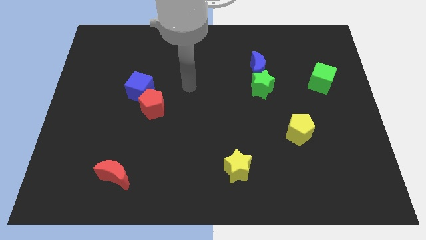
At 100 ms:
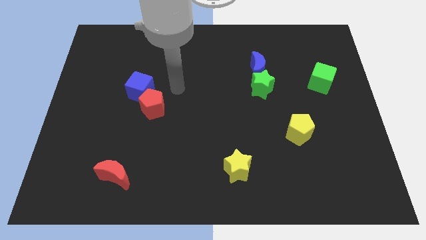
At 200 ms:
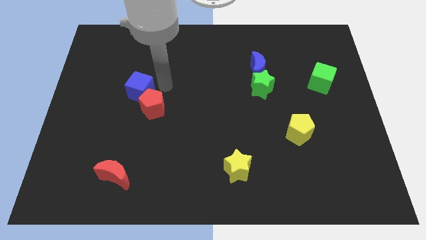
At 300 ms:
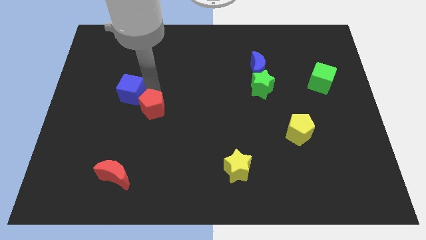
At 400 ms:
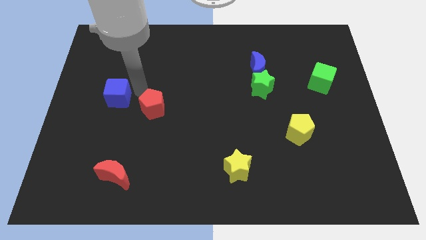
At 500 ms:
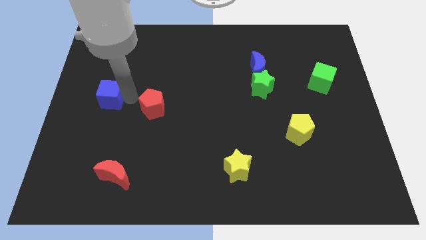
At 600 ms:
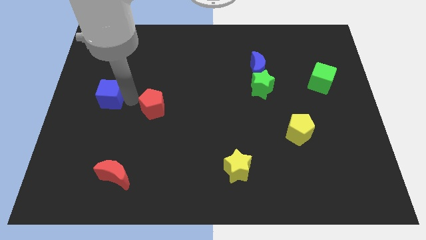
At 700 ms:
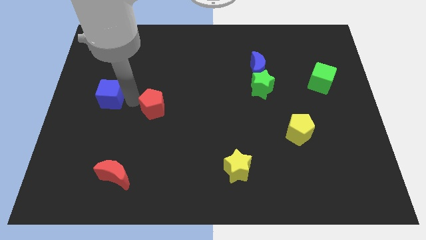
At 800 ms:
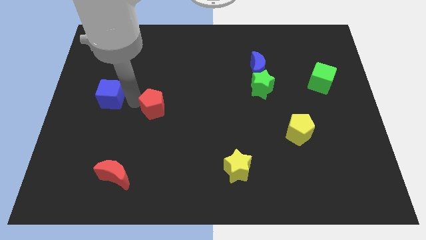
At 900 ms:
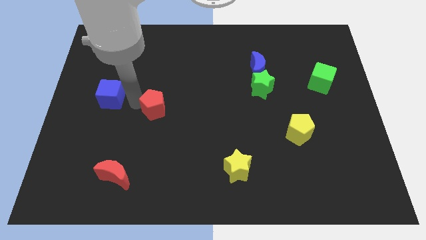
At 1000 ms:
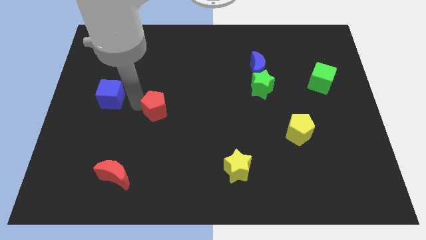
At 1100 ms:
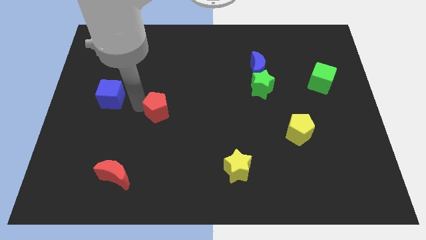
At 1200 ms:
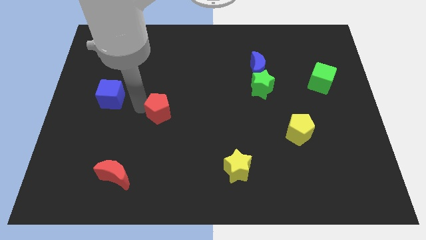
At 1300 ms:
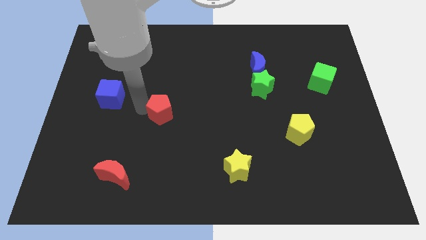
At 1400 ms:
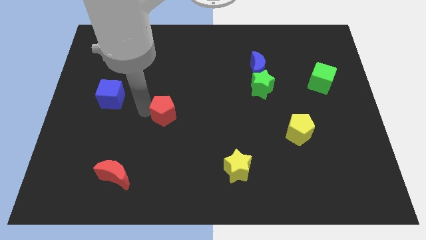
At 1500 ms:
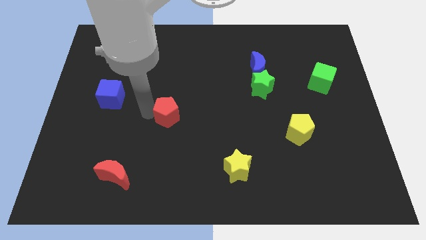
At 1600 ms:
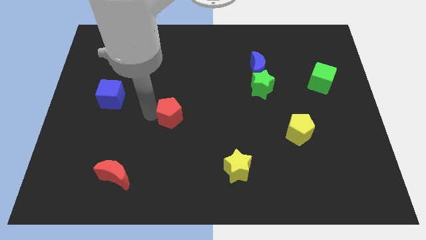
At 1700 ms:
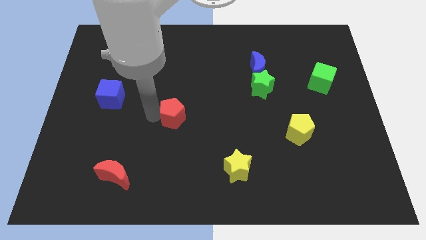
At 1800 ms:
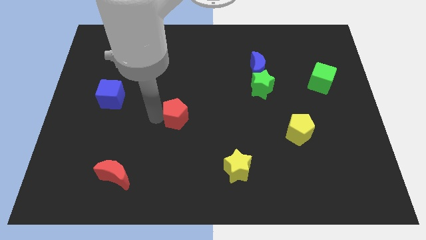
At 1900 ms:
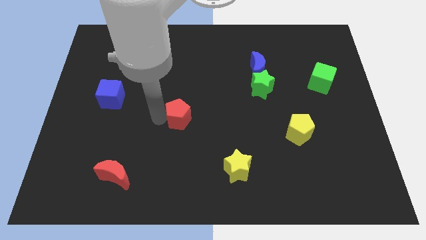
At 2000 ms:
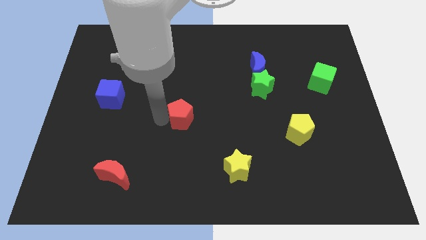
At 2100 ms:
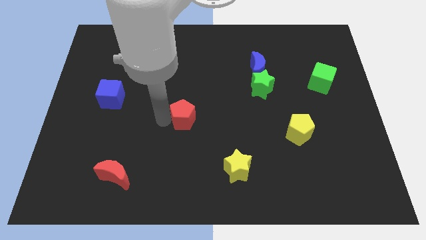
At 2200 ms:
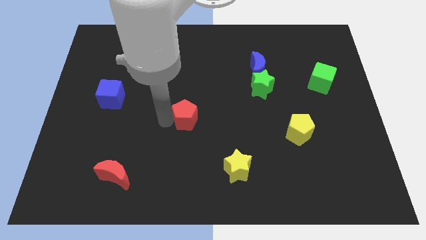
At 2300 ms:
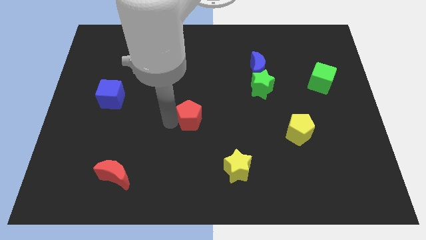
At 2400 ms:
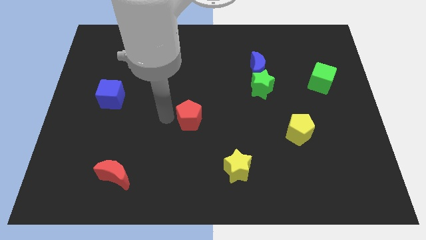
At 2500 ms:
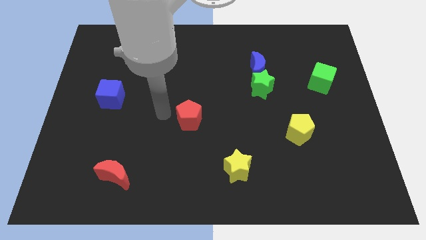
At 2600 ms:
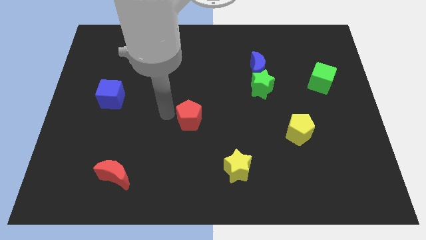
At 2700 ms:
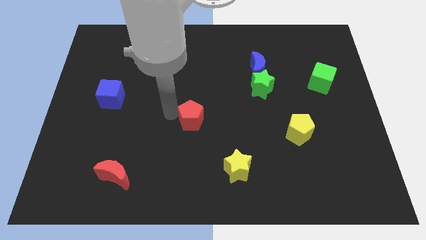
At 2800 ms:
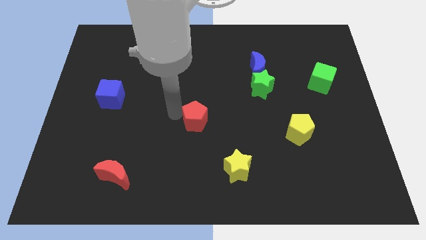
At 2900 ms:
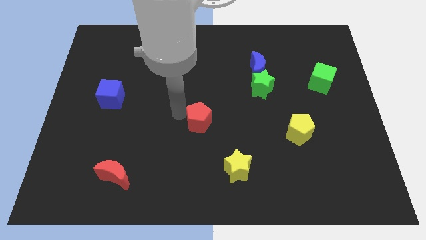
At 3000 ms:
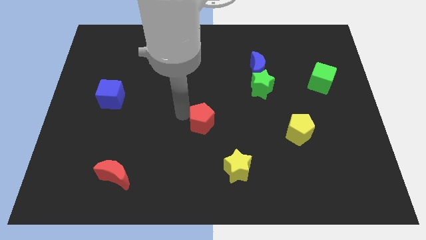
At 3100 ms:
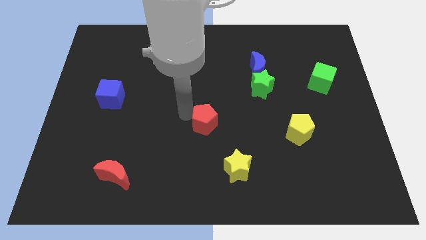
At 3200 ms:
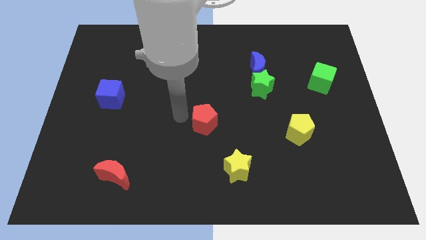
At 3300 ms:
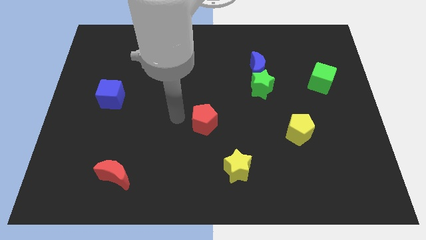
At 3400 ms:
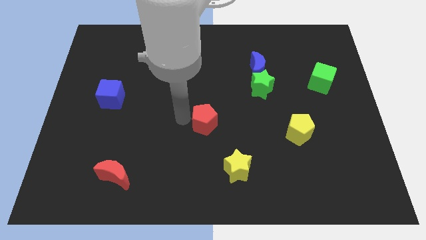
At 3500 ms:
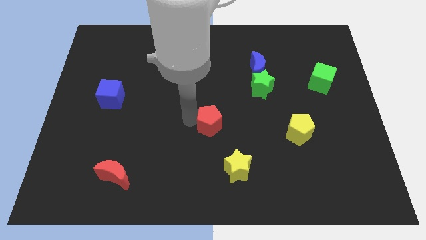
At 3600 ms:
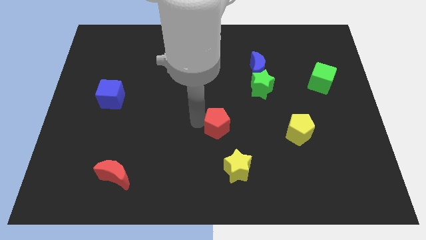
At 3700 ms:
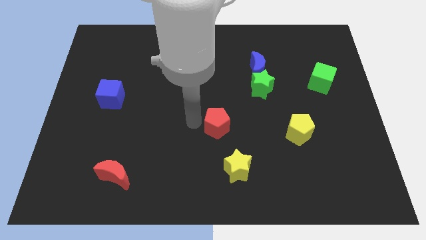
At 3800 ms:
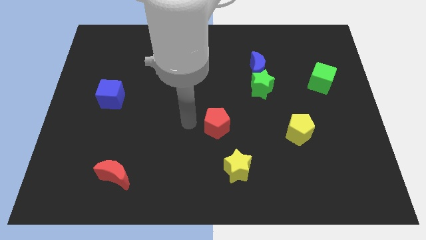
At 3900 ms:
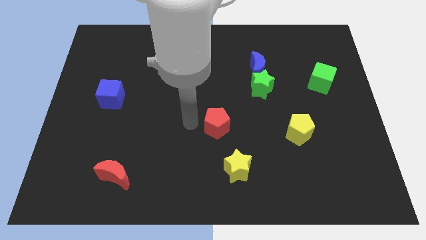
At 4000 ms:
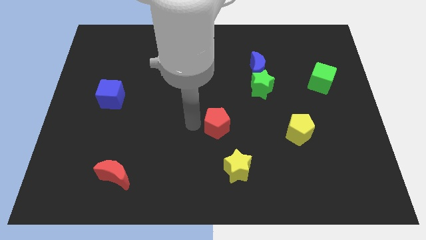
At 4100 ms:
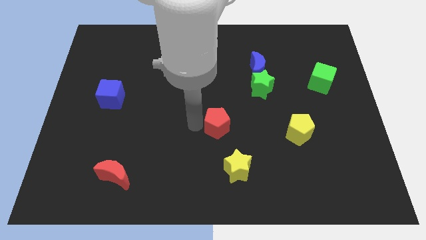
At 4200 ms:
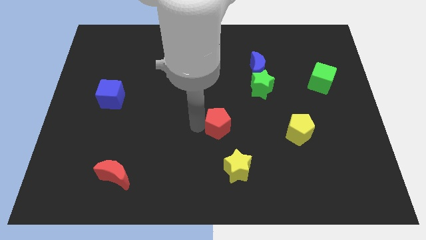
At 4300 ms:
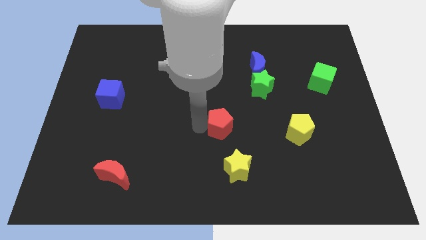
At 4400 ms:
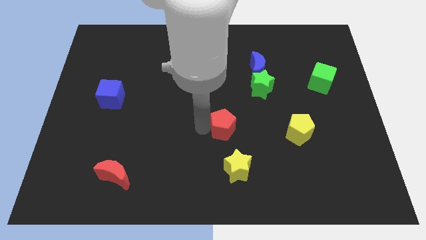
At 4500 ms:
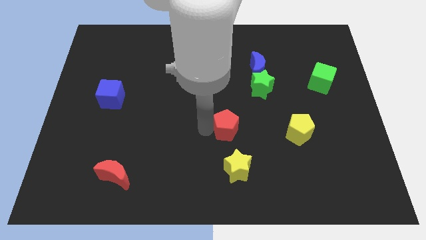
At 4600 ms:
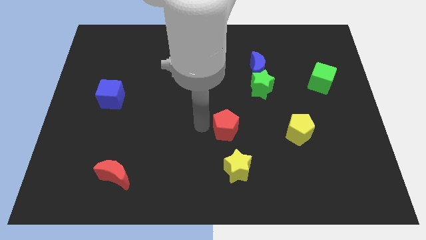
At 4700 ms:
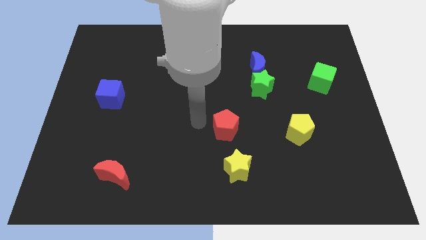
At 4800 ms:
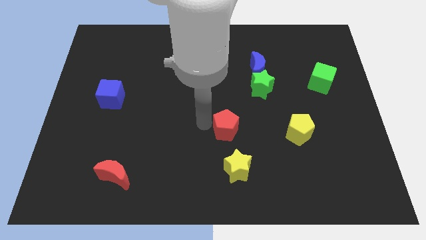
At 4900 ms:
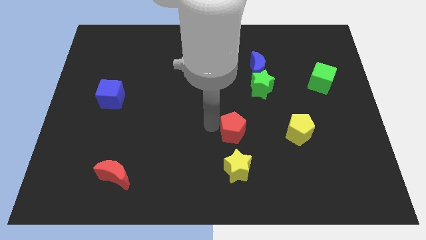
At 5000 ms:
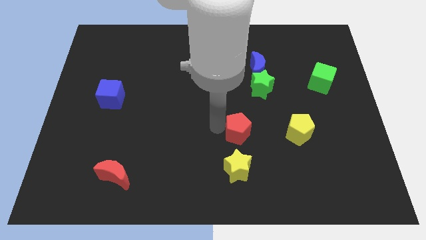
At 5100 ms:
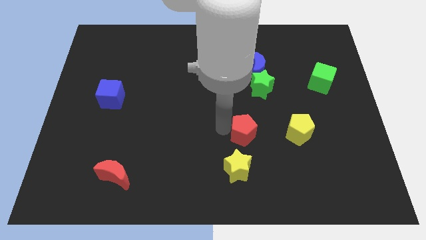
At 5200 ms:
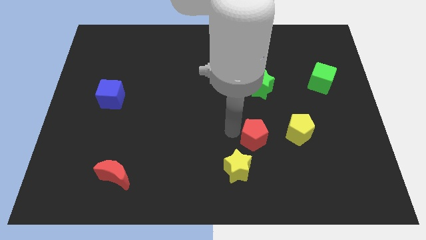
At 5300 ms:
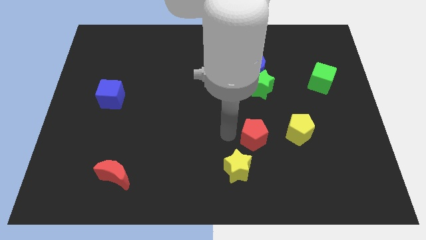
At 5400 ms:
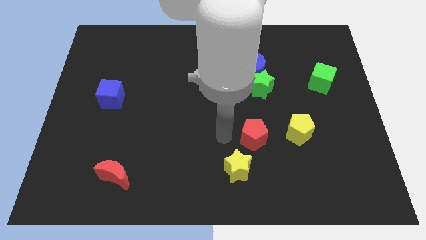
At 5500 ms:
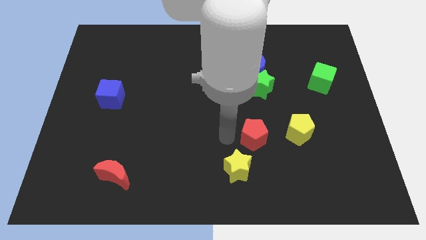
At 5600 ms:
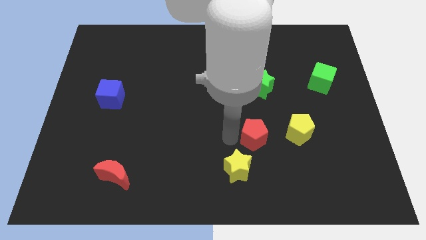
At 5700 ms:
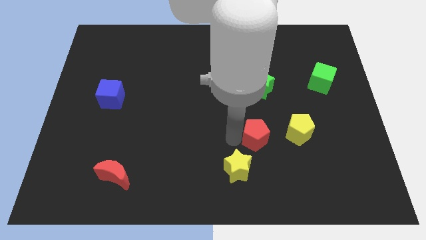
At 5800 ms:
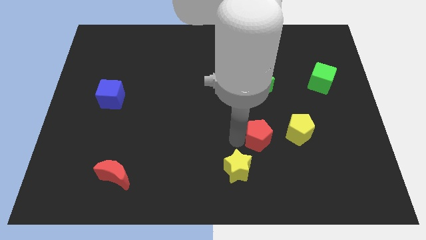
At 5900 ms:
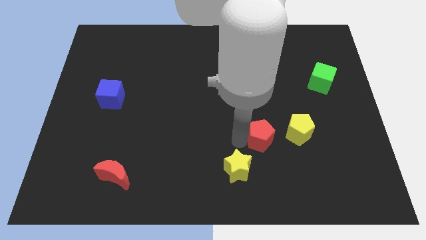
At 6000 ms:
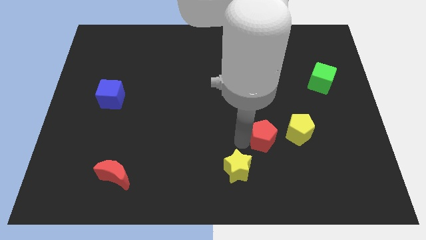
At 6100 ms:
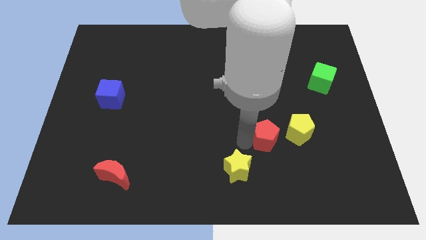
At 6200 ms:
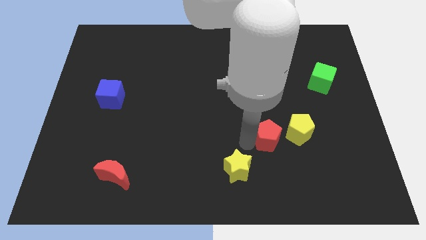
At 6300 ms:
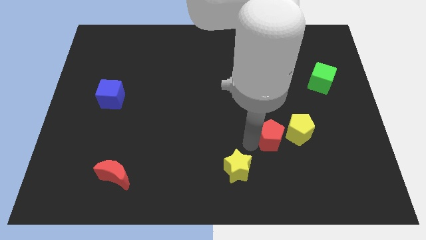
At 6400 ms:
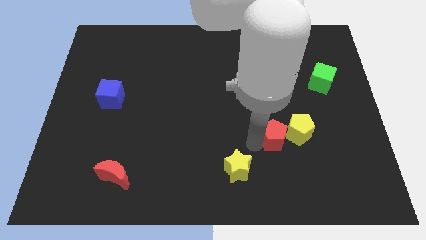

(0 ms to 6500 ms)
push the red pentagon to the yellow pentagon

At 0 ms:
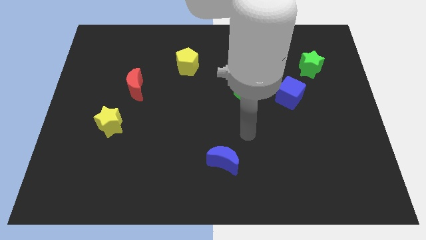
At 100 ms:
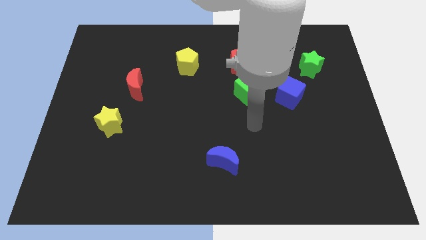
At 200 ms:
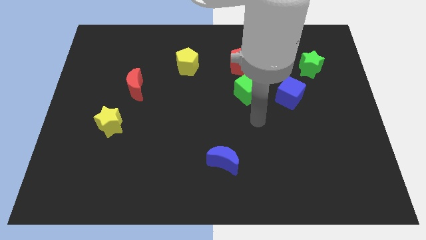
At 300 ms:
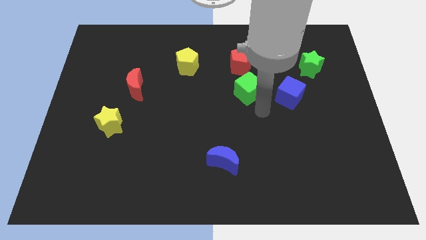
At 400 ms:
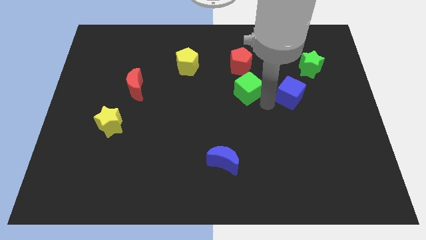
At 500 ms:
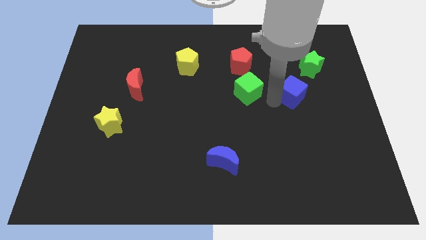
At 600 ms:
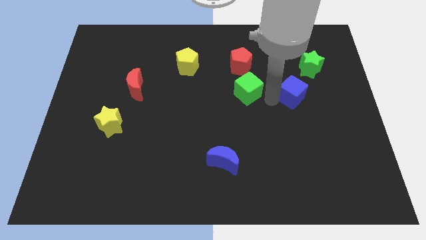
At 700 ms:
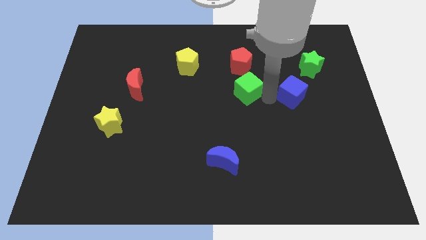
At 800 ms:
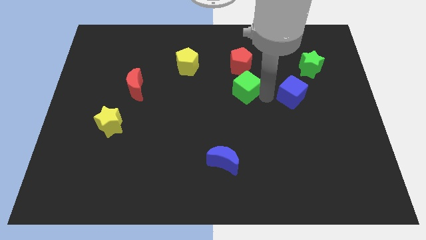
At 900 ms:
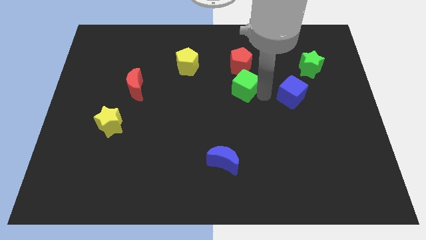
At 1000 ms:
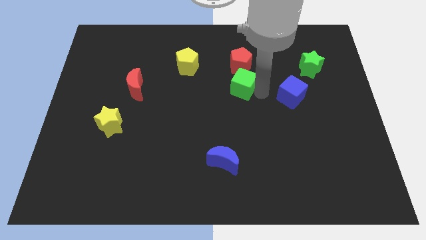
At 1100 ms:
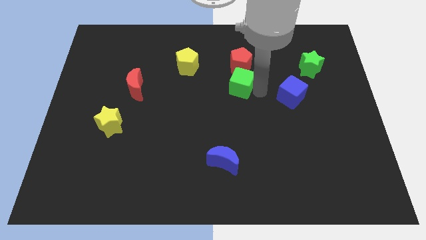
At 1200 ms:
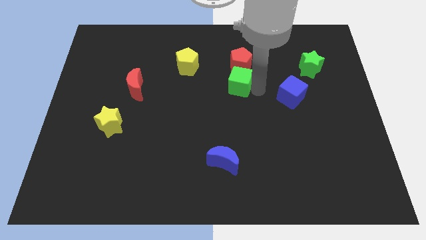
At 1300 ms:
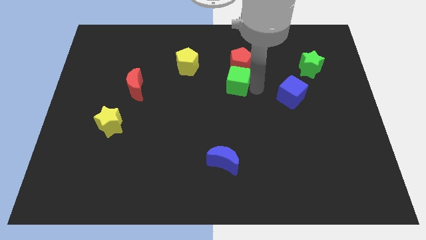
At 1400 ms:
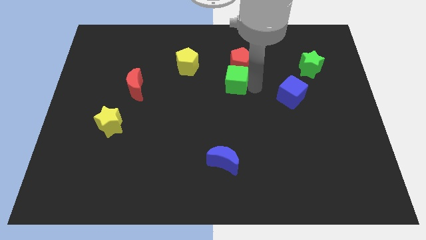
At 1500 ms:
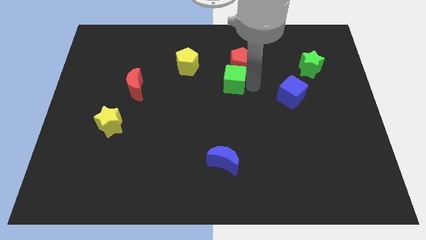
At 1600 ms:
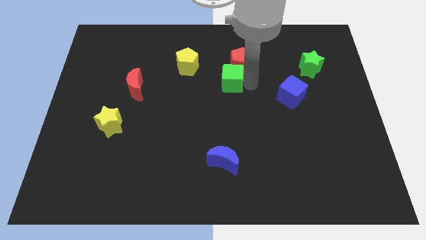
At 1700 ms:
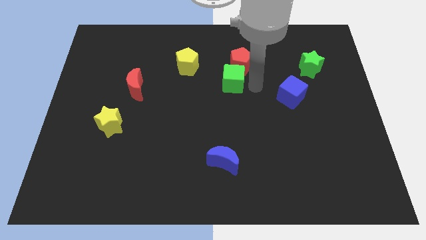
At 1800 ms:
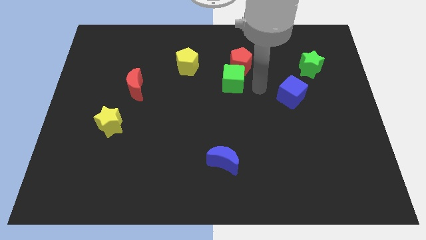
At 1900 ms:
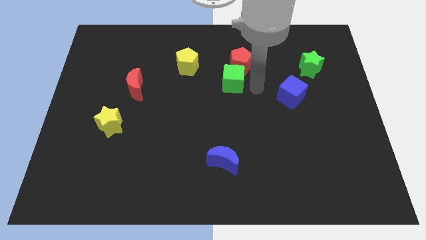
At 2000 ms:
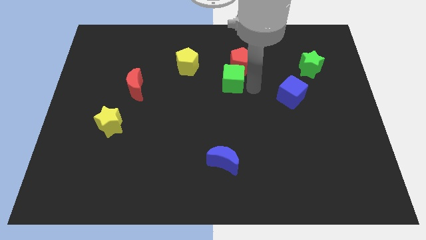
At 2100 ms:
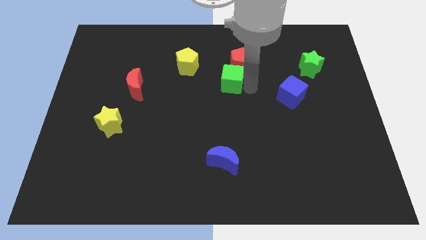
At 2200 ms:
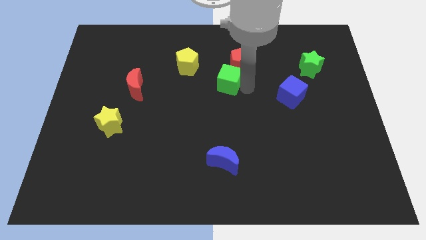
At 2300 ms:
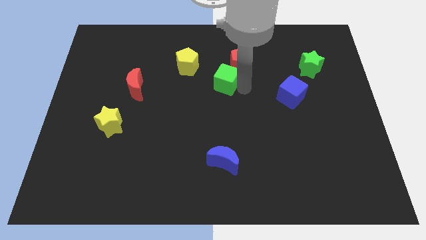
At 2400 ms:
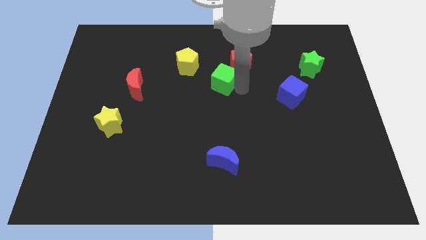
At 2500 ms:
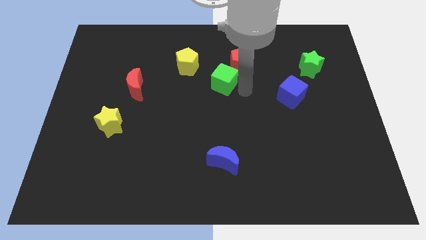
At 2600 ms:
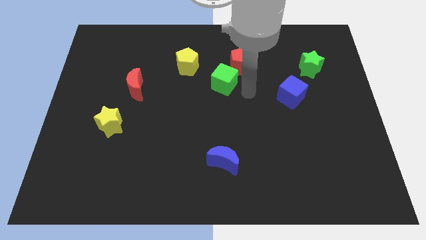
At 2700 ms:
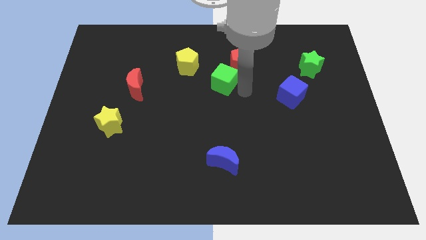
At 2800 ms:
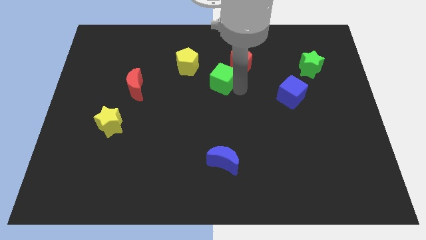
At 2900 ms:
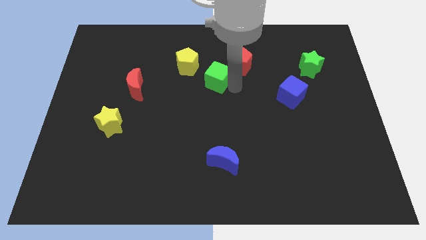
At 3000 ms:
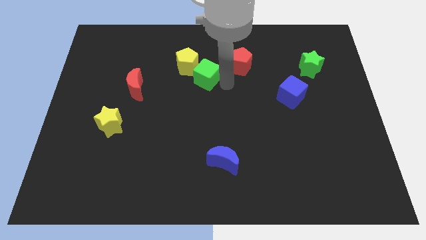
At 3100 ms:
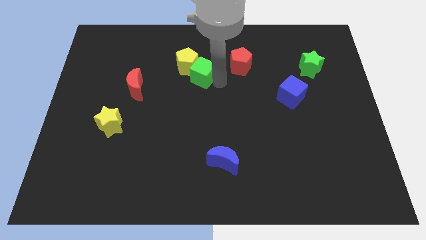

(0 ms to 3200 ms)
move the green cube next to the yellow pentagon
